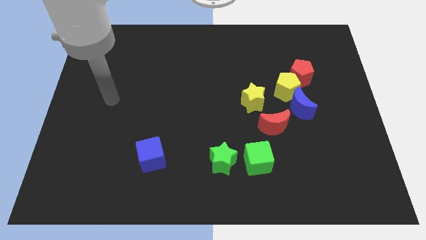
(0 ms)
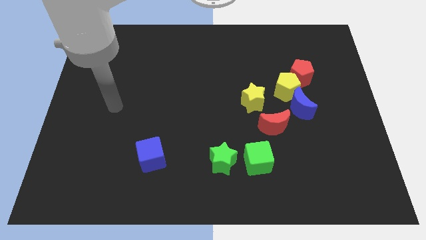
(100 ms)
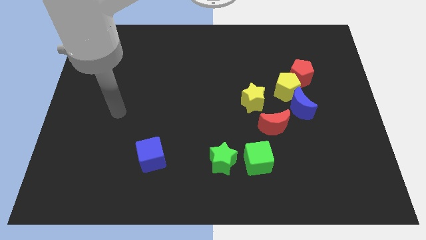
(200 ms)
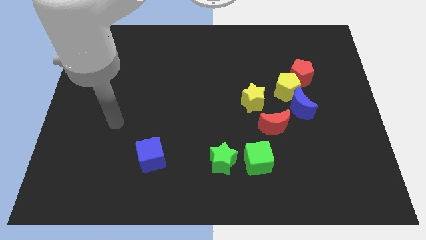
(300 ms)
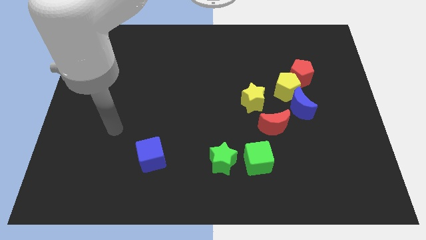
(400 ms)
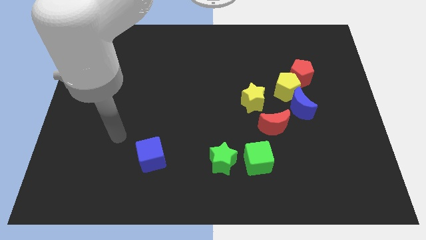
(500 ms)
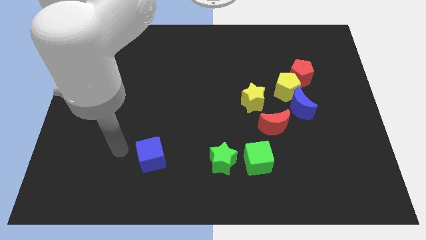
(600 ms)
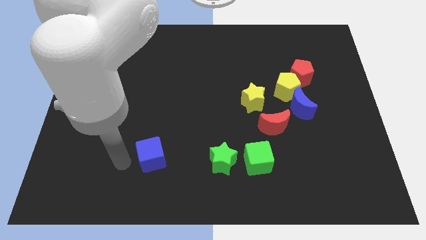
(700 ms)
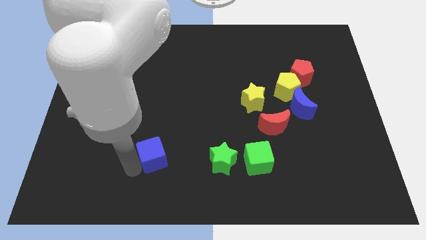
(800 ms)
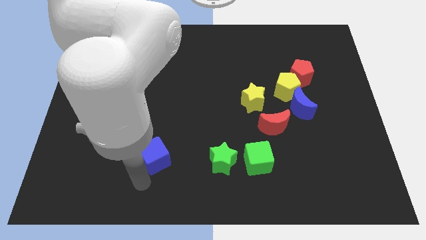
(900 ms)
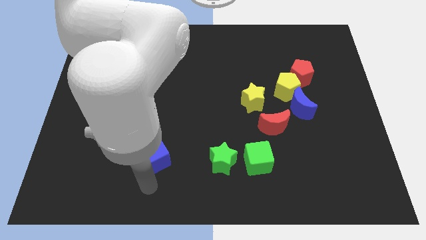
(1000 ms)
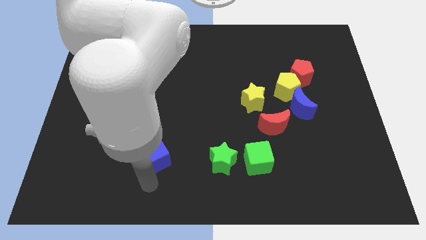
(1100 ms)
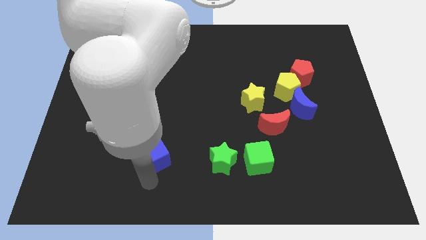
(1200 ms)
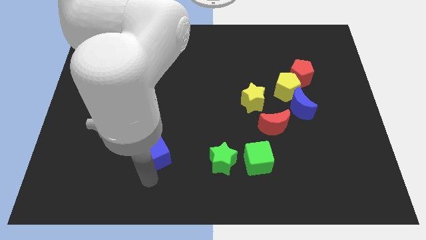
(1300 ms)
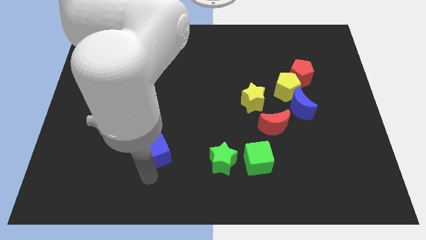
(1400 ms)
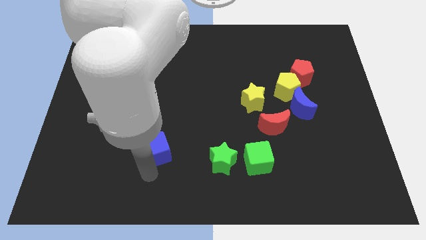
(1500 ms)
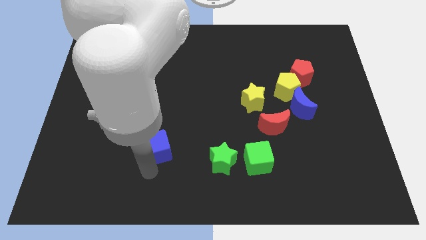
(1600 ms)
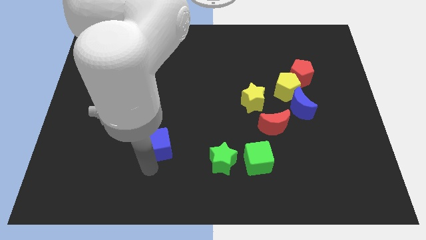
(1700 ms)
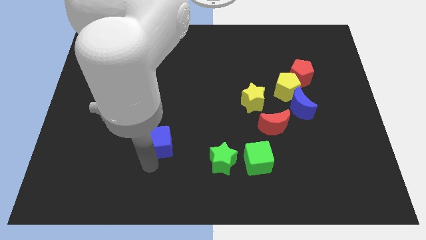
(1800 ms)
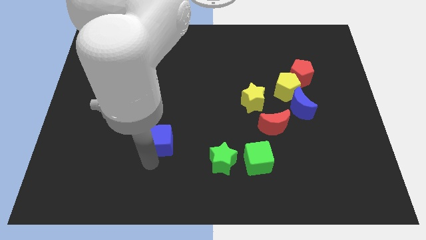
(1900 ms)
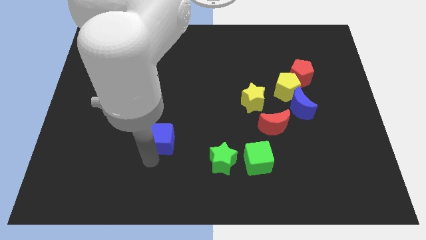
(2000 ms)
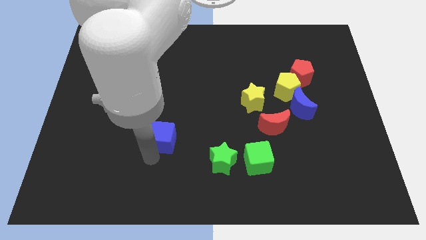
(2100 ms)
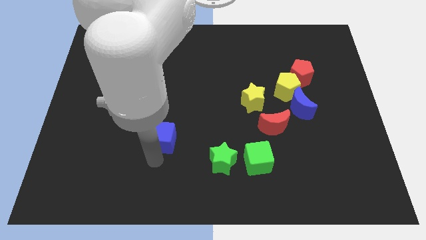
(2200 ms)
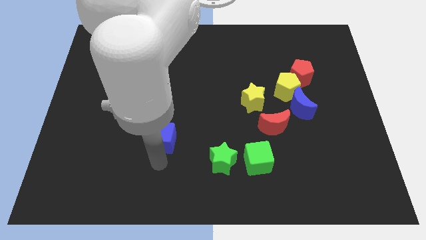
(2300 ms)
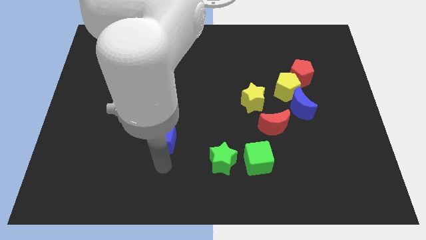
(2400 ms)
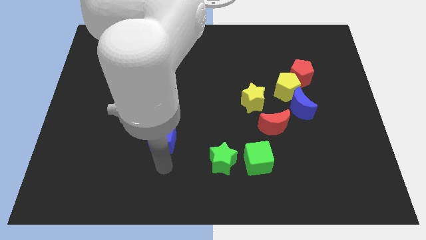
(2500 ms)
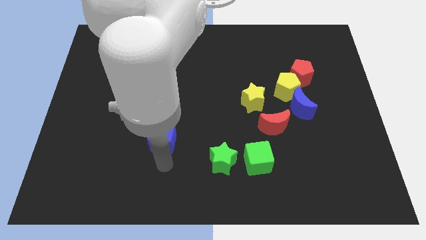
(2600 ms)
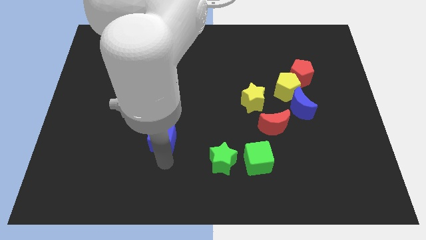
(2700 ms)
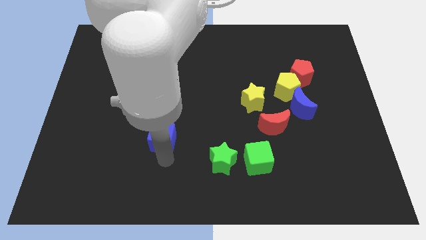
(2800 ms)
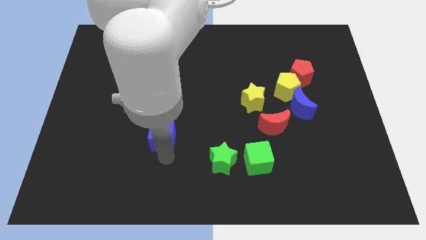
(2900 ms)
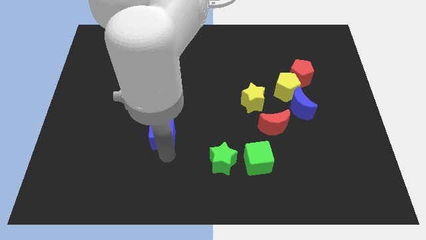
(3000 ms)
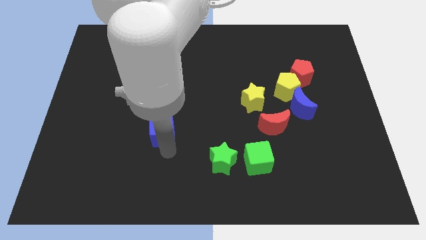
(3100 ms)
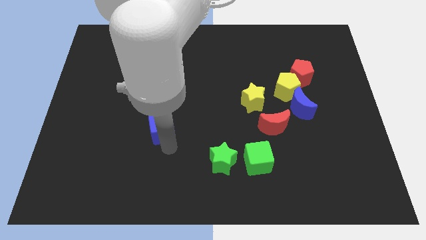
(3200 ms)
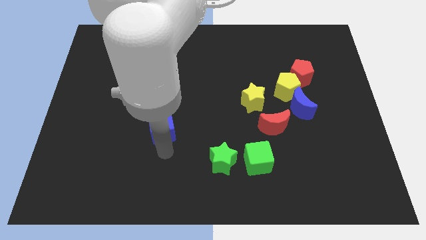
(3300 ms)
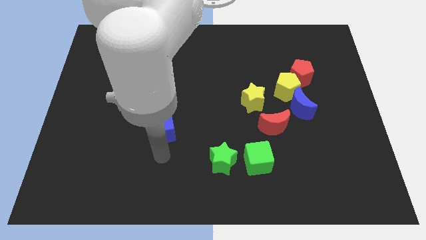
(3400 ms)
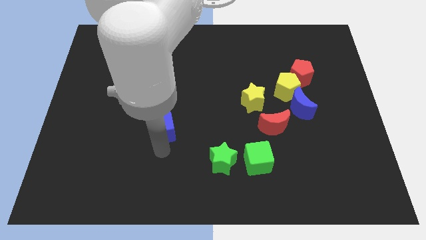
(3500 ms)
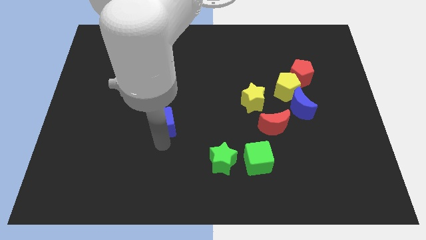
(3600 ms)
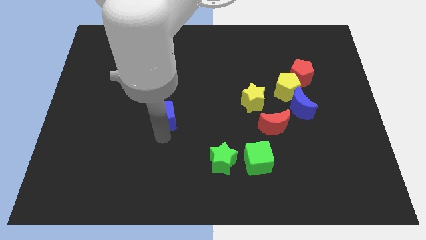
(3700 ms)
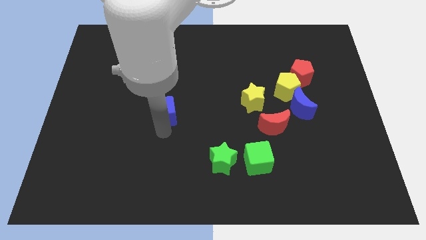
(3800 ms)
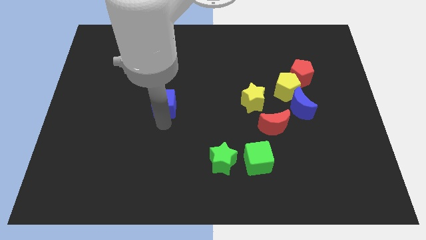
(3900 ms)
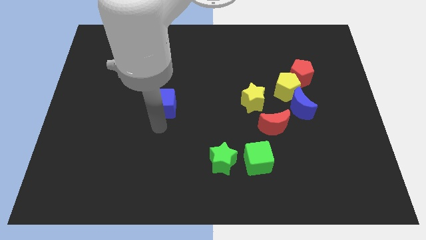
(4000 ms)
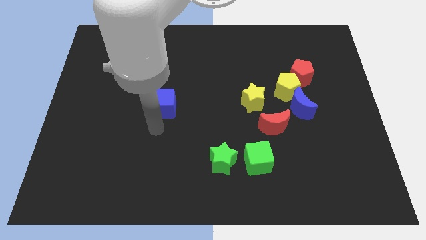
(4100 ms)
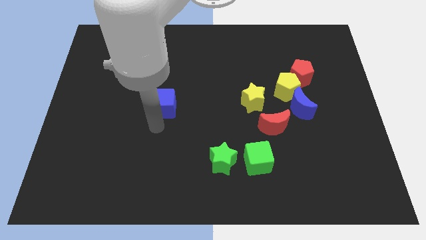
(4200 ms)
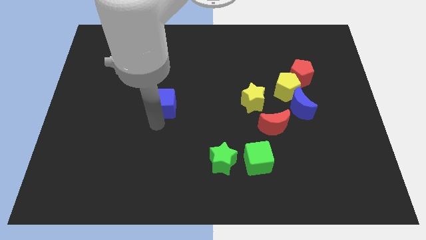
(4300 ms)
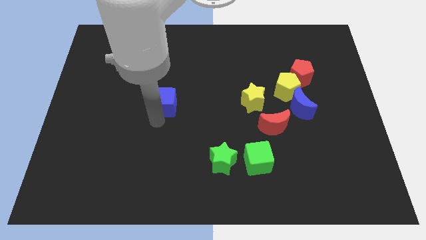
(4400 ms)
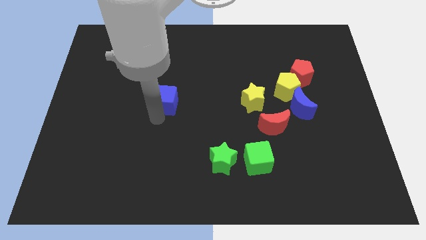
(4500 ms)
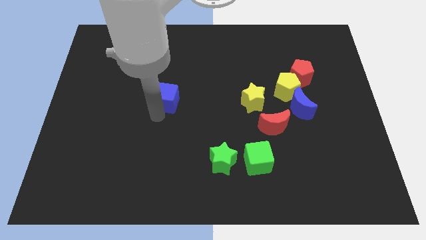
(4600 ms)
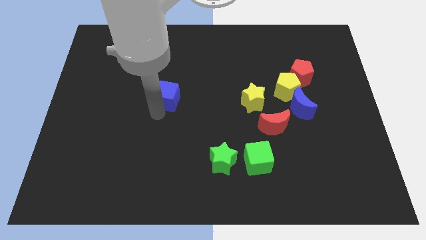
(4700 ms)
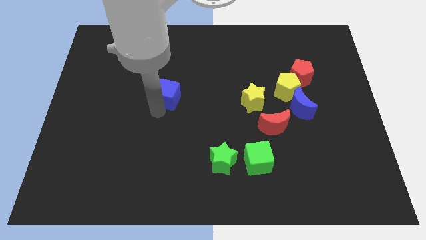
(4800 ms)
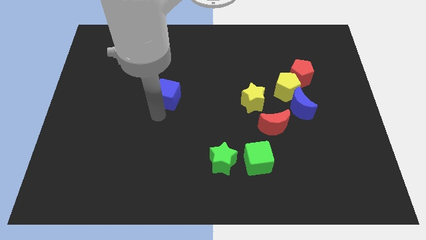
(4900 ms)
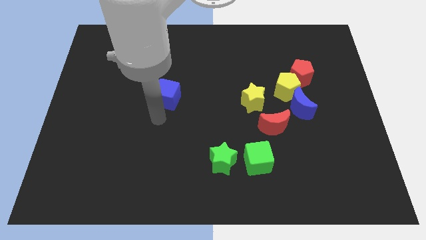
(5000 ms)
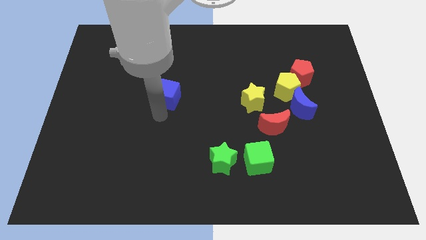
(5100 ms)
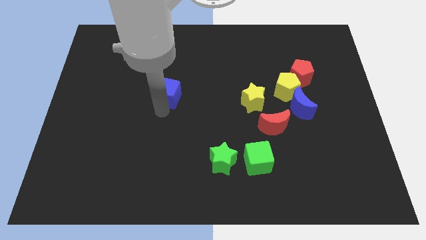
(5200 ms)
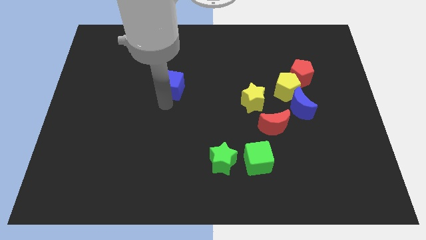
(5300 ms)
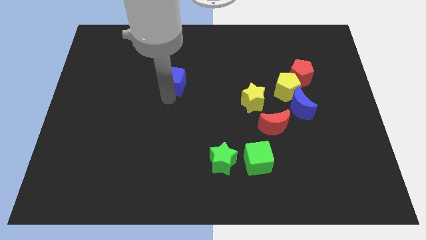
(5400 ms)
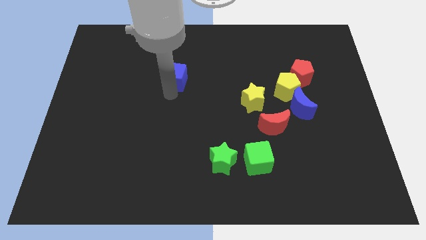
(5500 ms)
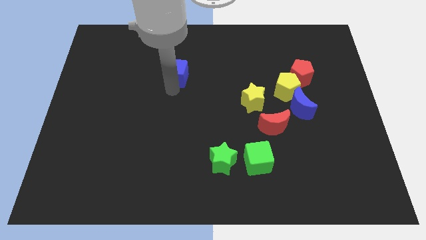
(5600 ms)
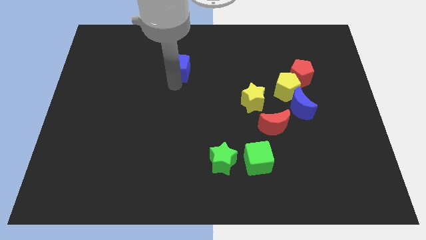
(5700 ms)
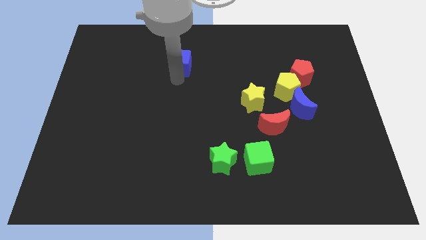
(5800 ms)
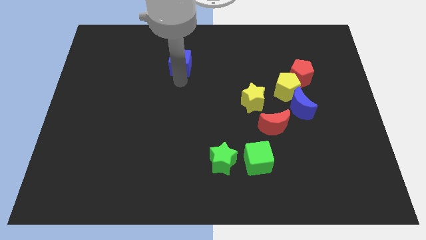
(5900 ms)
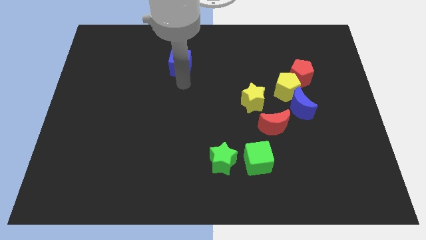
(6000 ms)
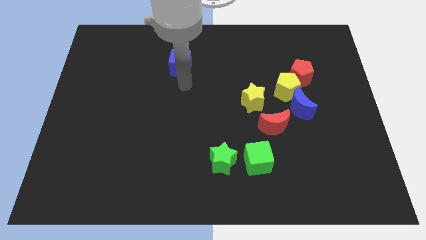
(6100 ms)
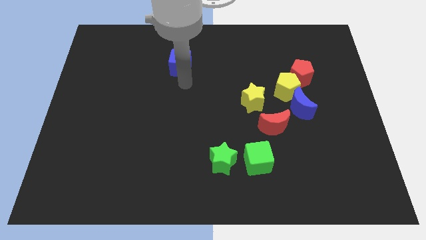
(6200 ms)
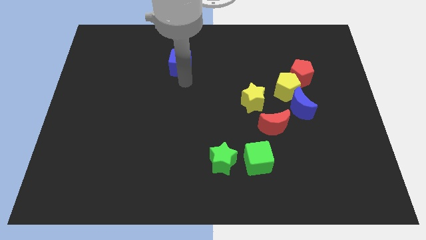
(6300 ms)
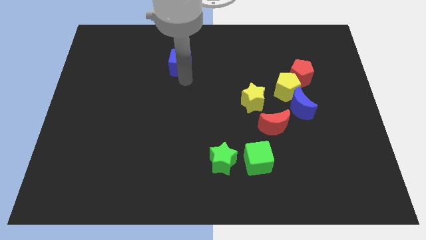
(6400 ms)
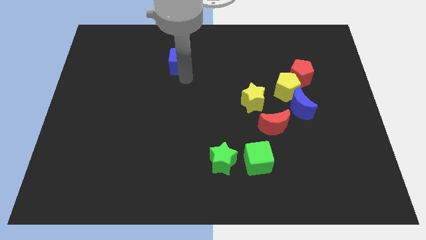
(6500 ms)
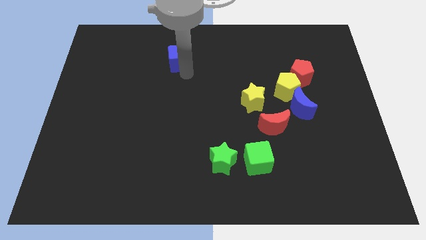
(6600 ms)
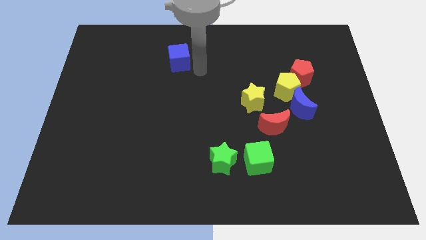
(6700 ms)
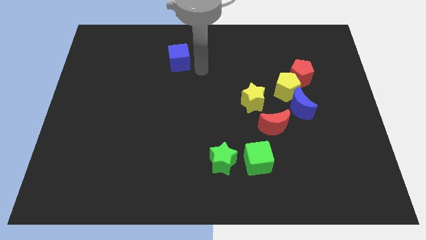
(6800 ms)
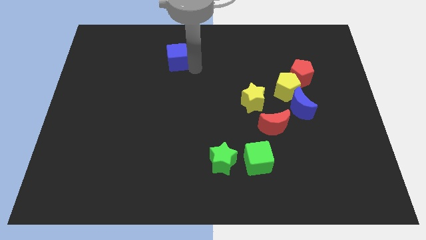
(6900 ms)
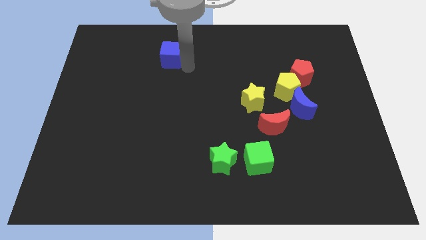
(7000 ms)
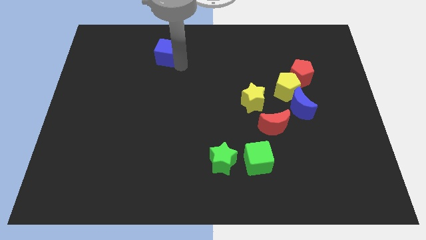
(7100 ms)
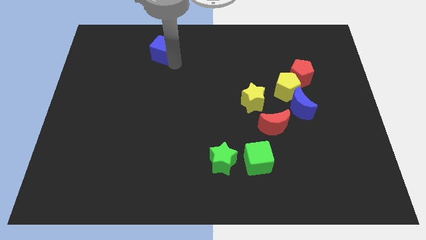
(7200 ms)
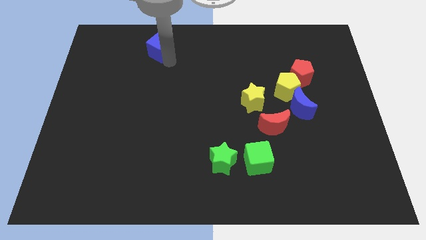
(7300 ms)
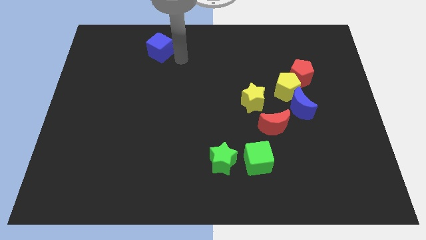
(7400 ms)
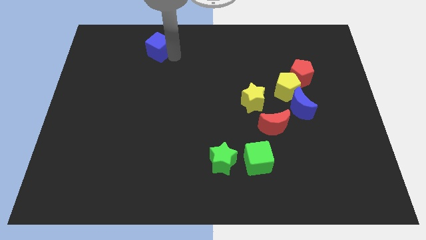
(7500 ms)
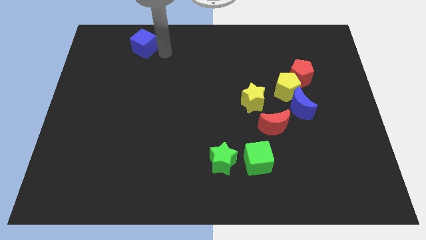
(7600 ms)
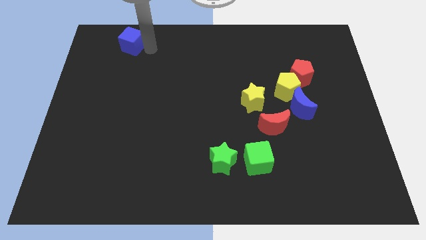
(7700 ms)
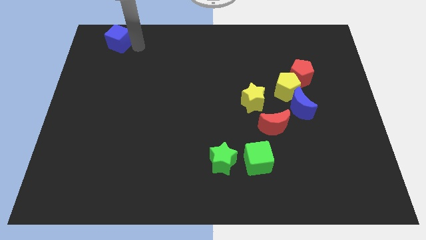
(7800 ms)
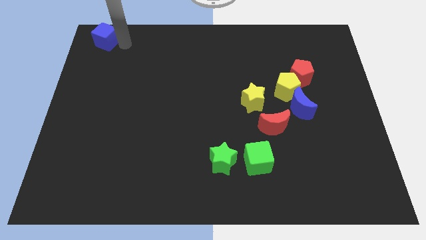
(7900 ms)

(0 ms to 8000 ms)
slide the blue cube to the top left of the board
